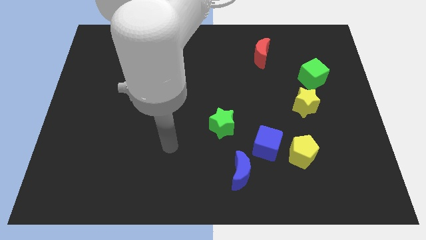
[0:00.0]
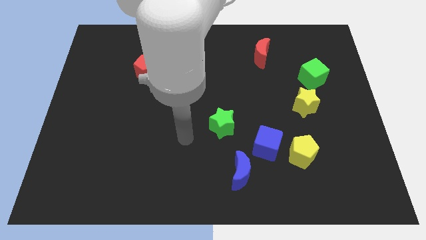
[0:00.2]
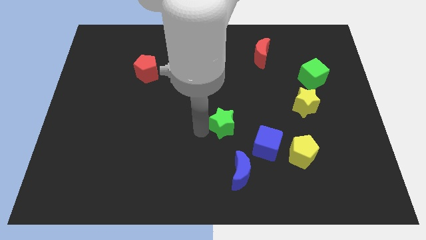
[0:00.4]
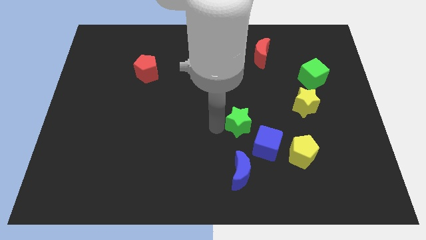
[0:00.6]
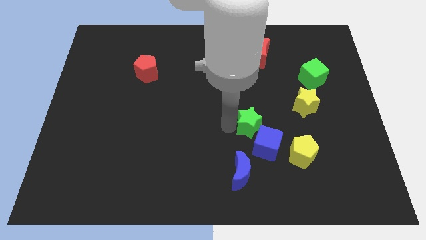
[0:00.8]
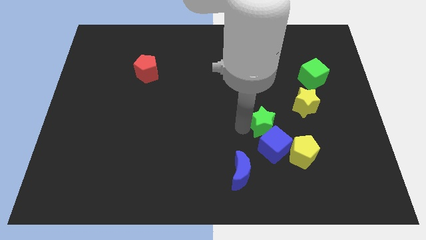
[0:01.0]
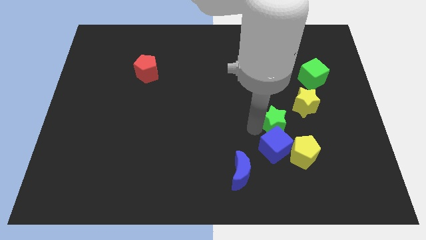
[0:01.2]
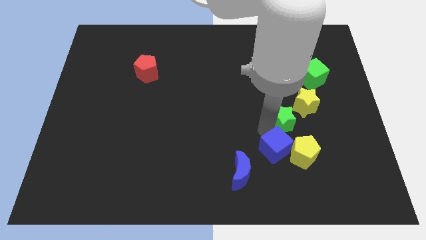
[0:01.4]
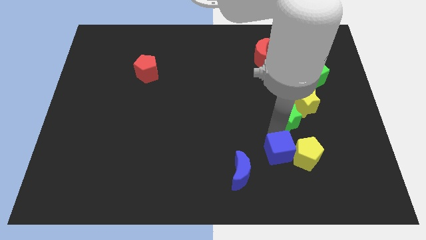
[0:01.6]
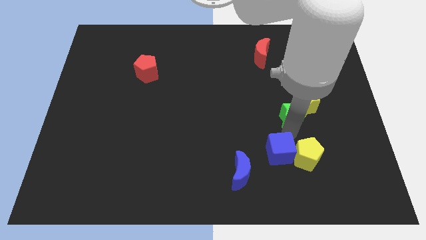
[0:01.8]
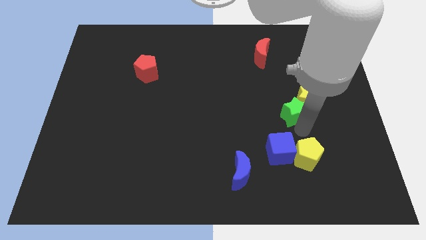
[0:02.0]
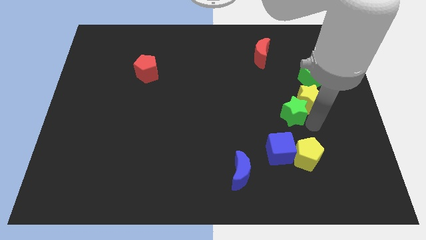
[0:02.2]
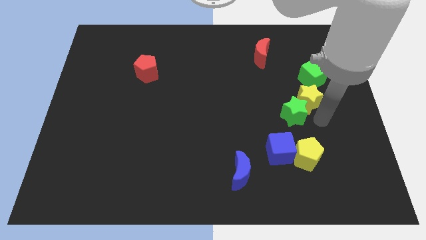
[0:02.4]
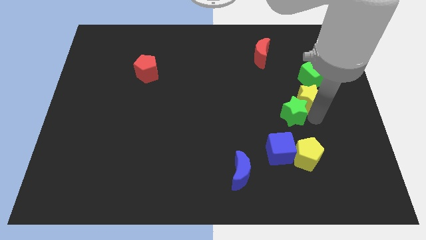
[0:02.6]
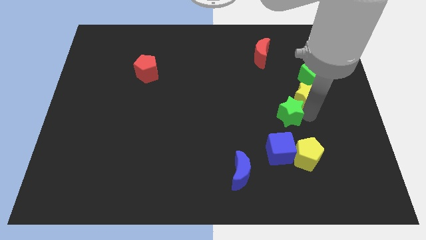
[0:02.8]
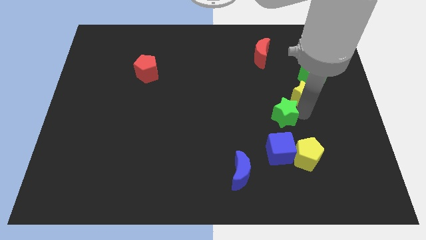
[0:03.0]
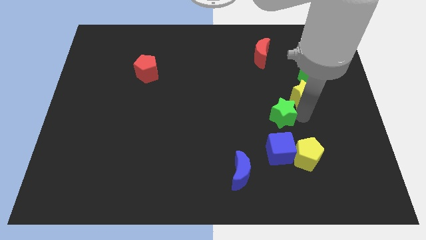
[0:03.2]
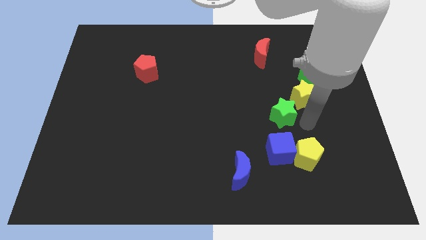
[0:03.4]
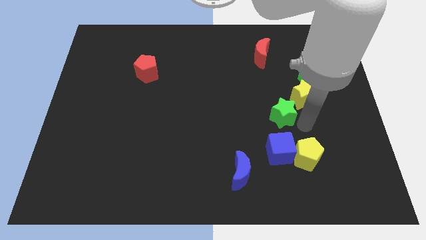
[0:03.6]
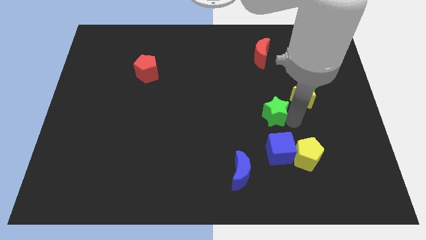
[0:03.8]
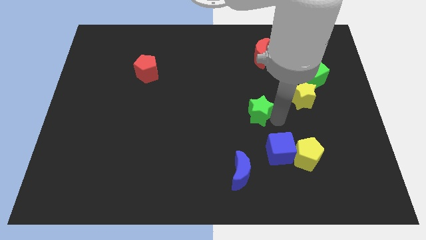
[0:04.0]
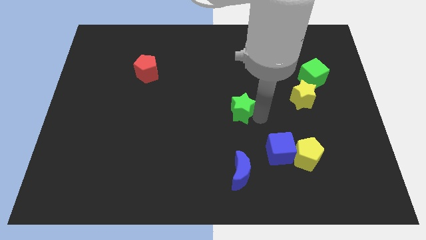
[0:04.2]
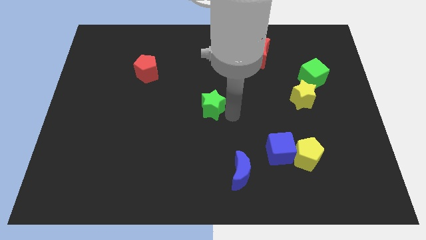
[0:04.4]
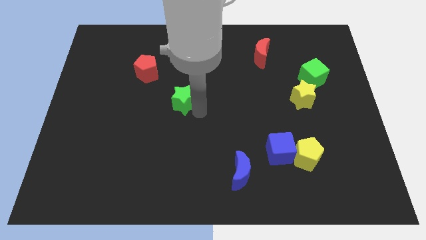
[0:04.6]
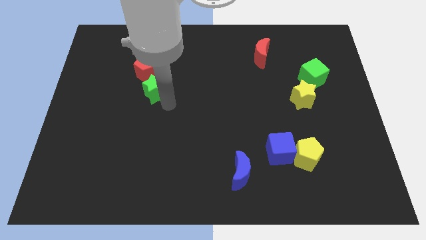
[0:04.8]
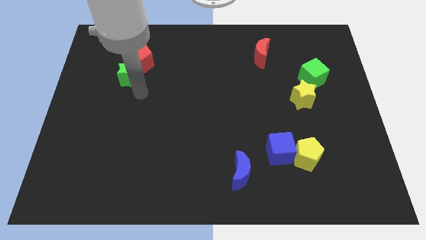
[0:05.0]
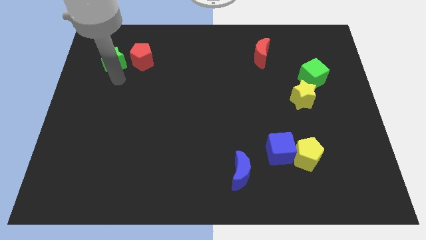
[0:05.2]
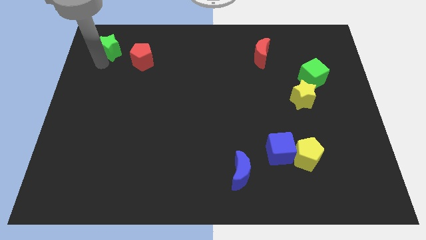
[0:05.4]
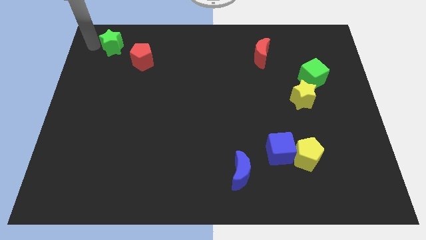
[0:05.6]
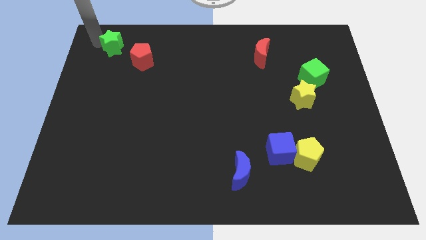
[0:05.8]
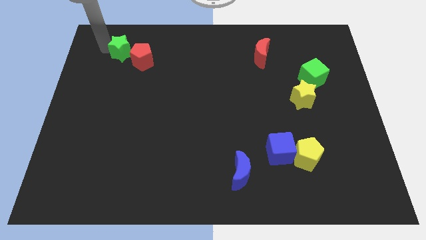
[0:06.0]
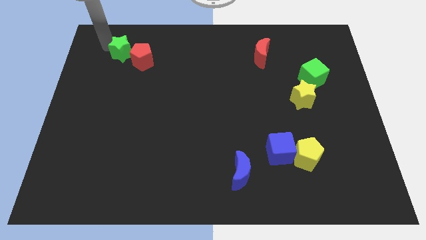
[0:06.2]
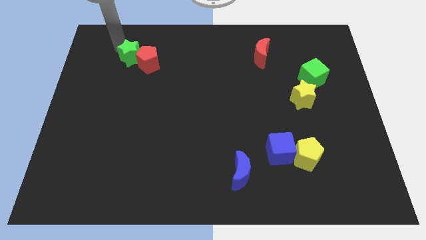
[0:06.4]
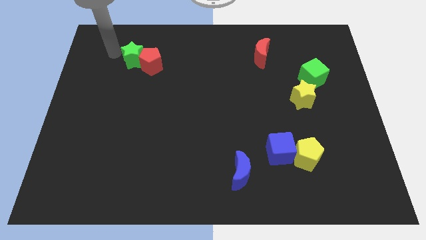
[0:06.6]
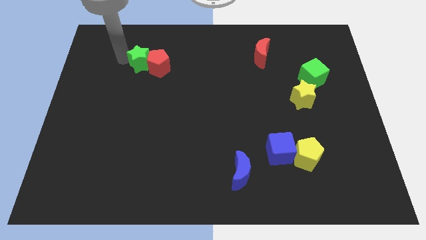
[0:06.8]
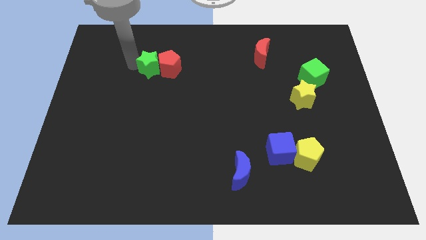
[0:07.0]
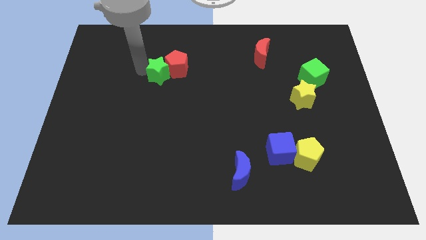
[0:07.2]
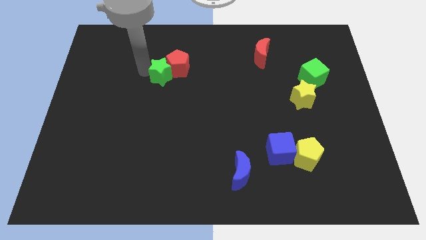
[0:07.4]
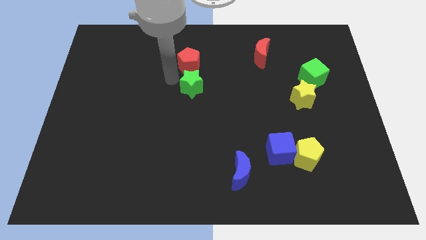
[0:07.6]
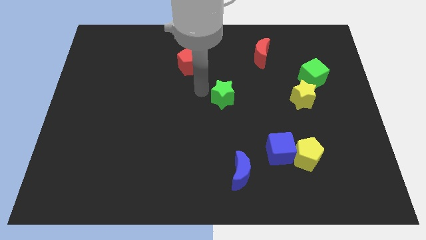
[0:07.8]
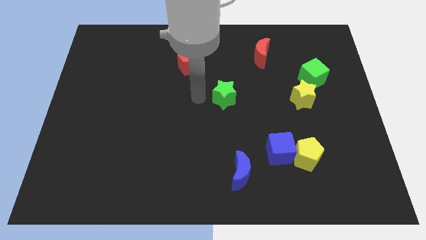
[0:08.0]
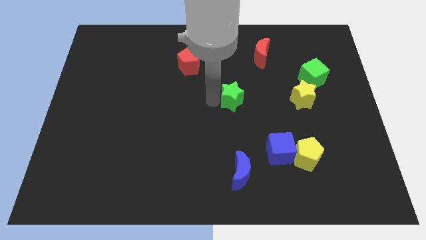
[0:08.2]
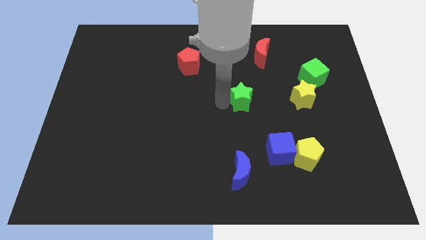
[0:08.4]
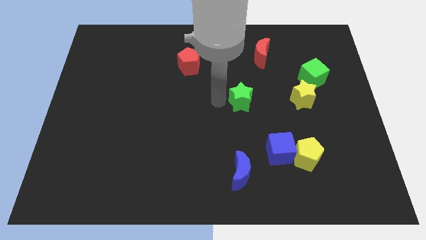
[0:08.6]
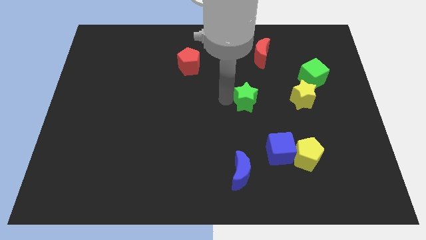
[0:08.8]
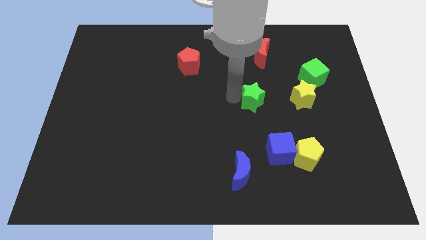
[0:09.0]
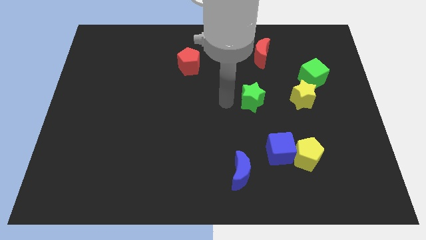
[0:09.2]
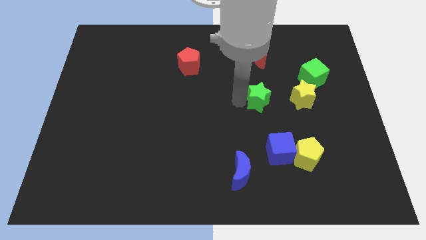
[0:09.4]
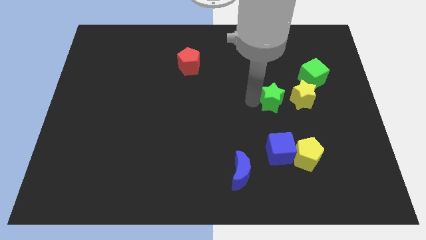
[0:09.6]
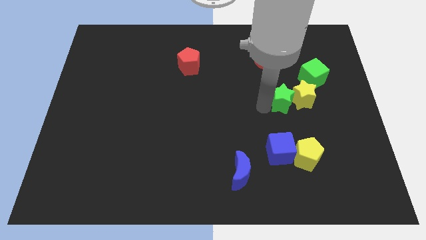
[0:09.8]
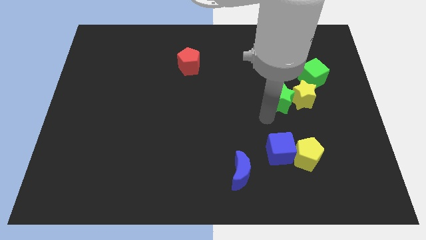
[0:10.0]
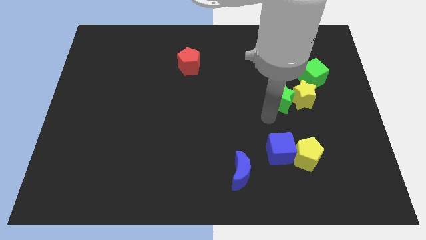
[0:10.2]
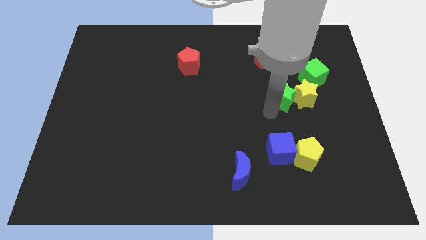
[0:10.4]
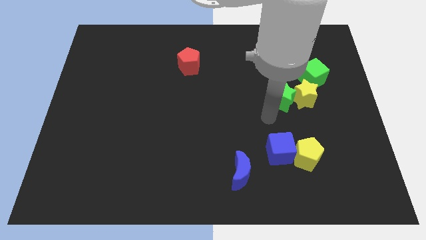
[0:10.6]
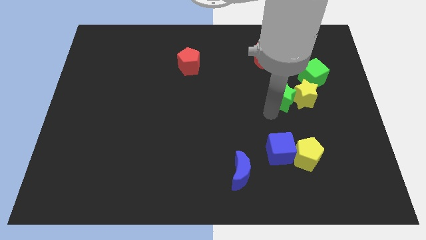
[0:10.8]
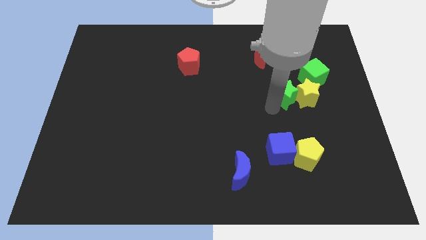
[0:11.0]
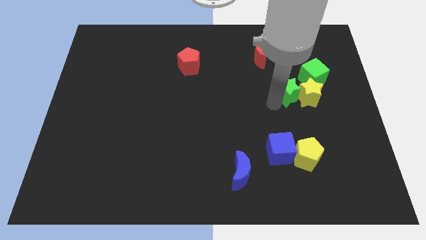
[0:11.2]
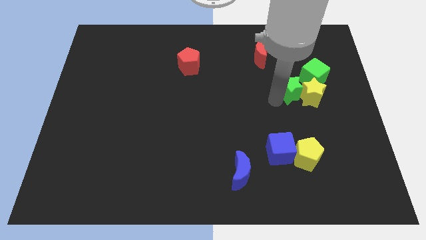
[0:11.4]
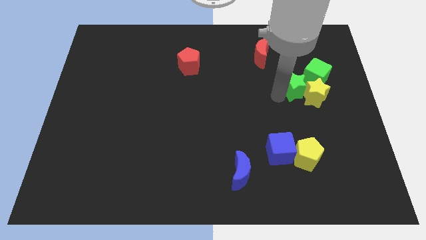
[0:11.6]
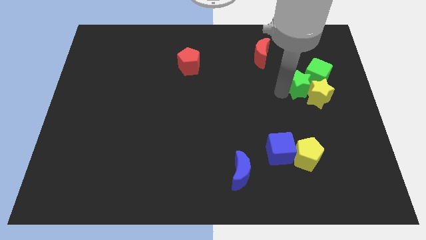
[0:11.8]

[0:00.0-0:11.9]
slide the green star towards the green cube

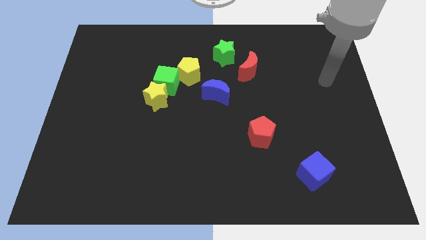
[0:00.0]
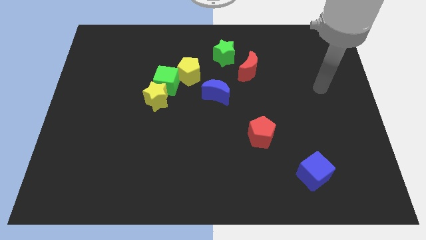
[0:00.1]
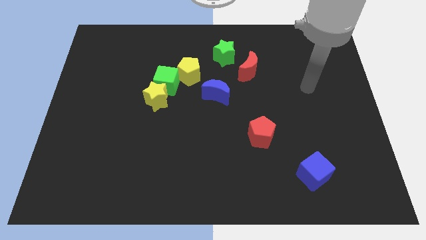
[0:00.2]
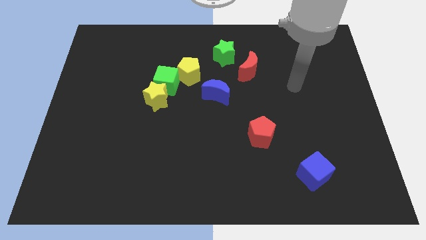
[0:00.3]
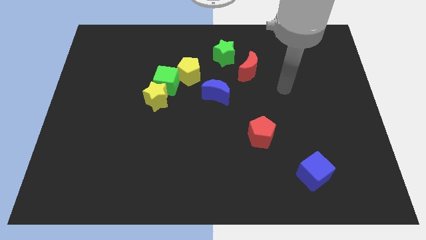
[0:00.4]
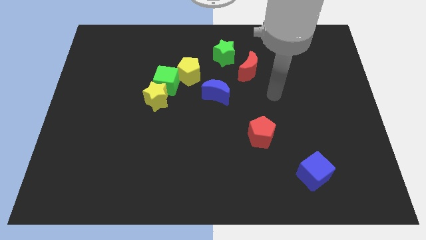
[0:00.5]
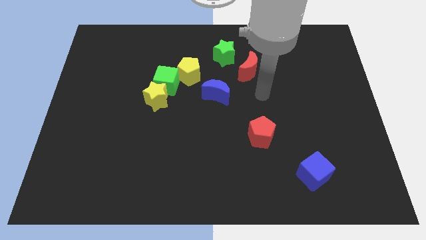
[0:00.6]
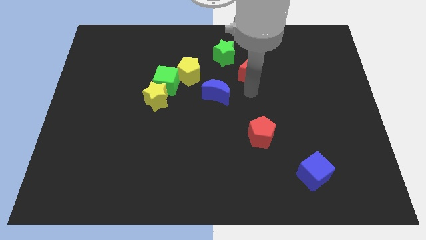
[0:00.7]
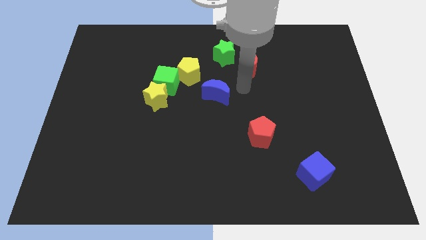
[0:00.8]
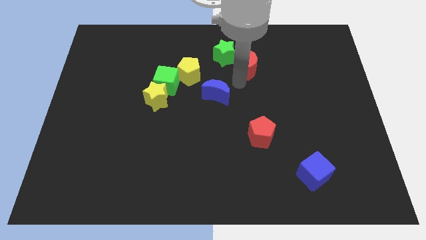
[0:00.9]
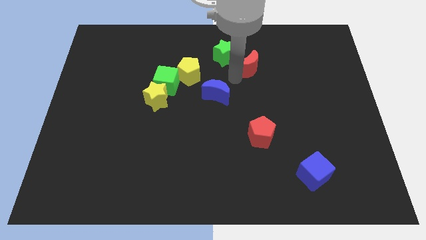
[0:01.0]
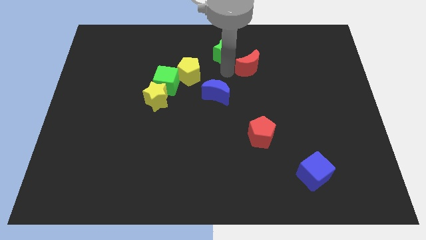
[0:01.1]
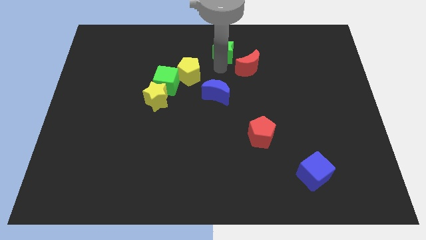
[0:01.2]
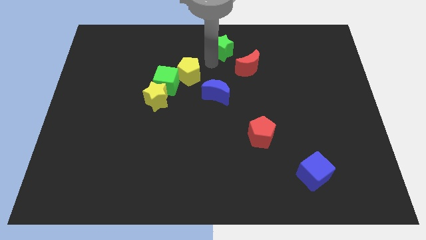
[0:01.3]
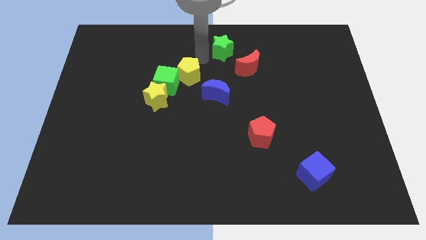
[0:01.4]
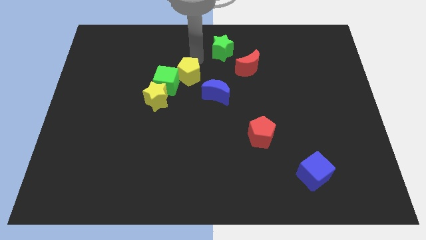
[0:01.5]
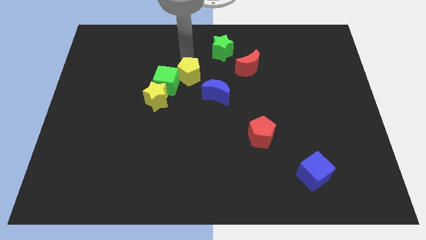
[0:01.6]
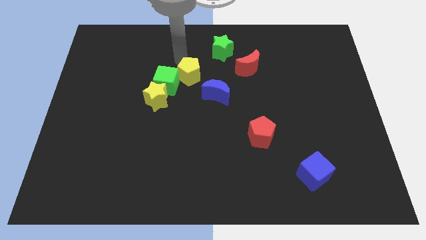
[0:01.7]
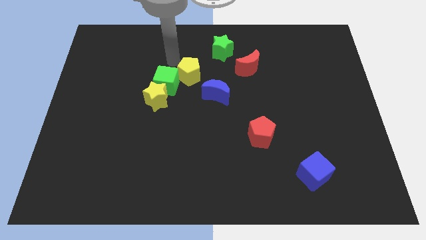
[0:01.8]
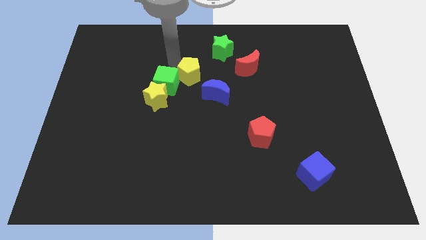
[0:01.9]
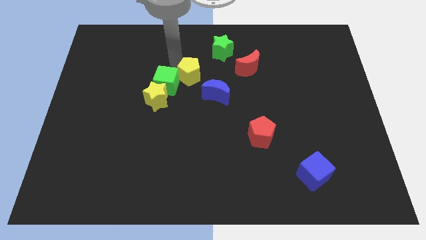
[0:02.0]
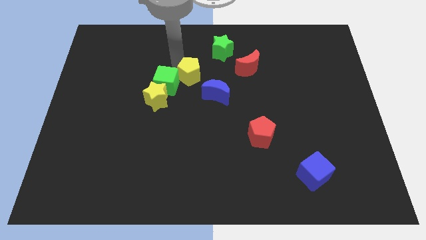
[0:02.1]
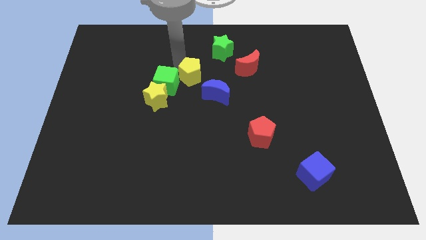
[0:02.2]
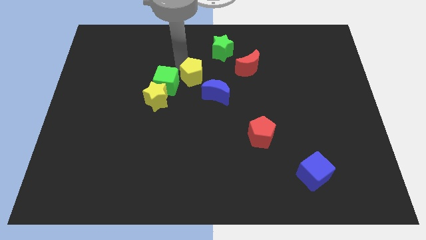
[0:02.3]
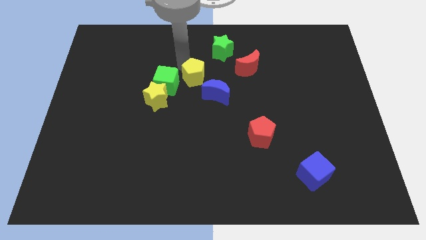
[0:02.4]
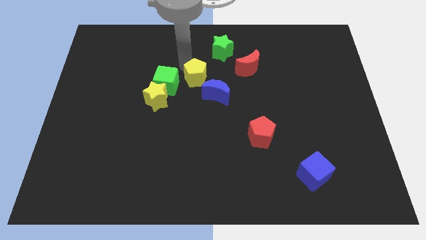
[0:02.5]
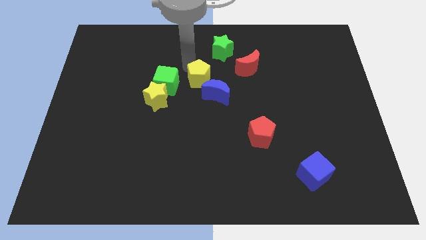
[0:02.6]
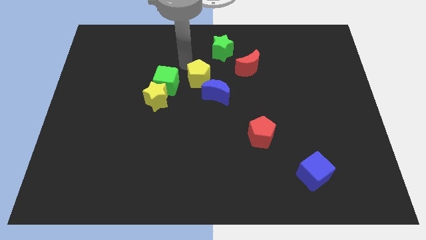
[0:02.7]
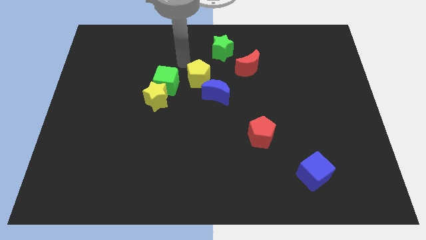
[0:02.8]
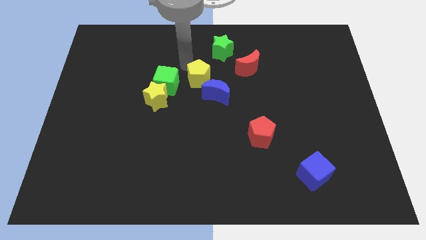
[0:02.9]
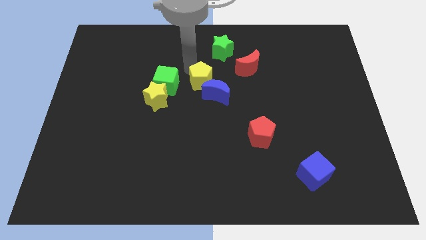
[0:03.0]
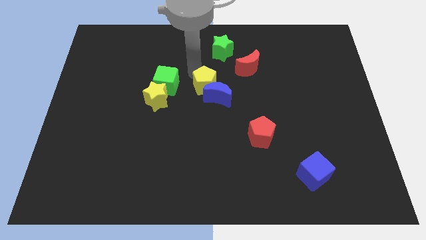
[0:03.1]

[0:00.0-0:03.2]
slide the yellow pentagon next to the blue moon
